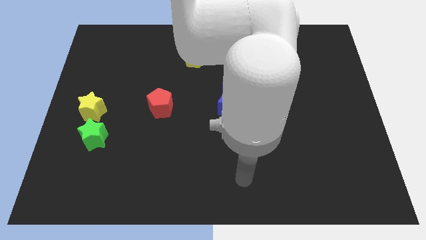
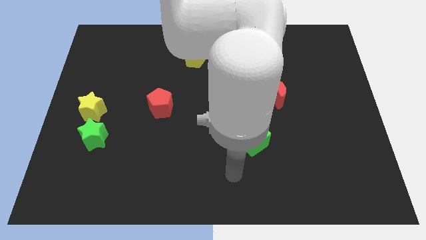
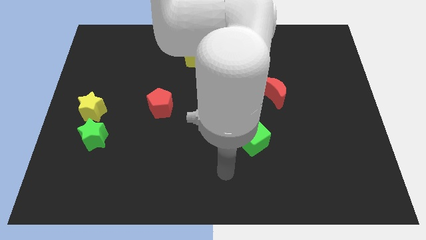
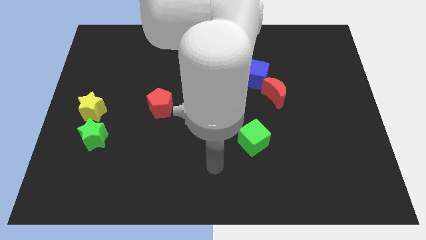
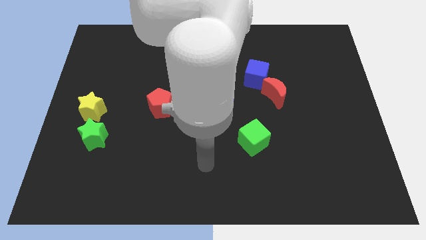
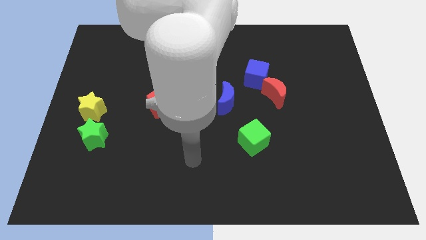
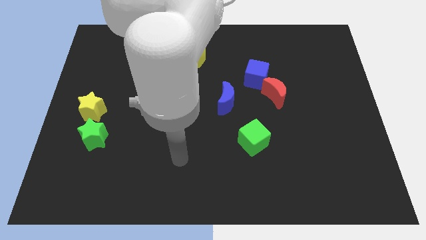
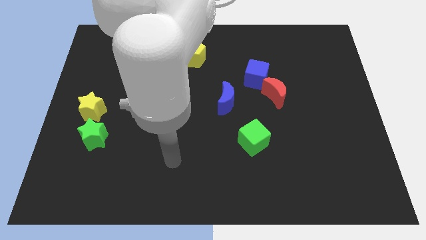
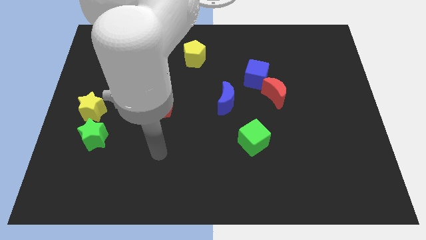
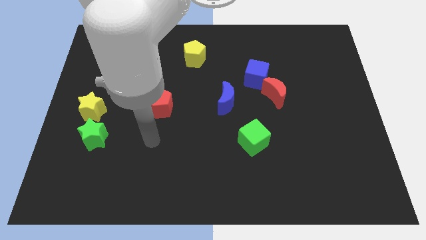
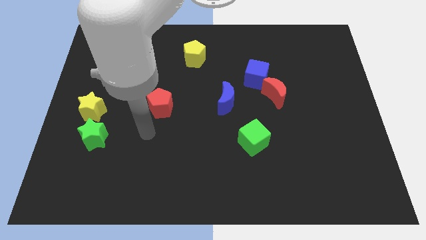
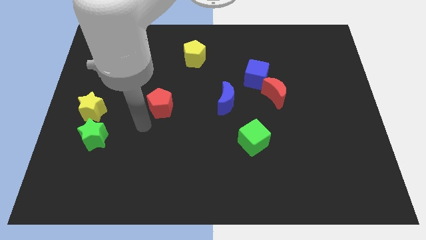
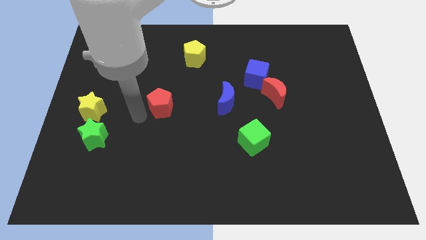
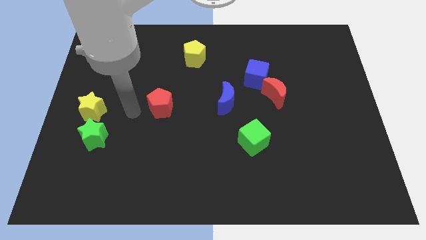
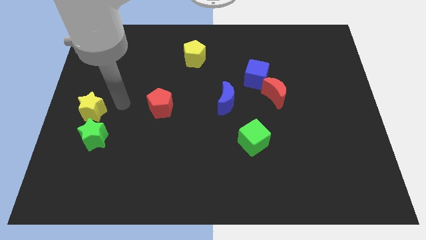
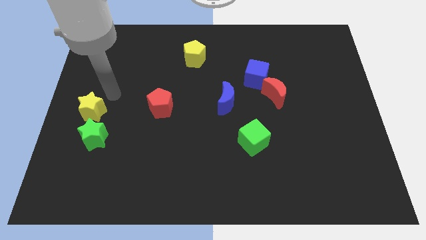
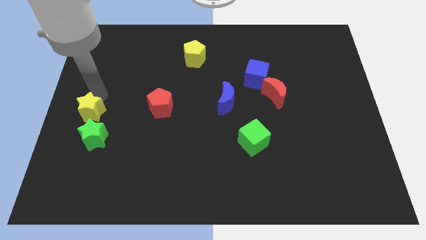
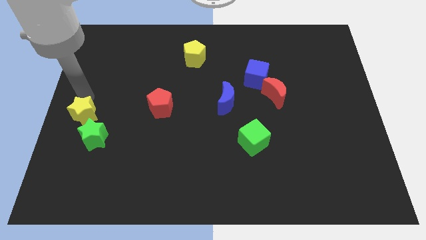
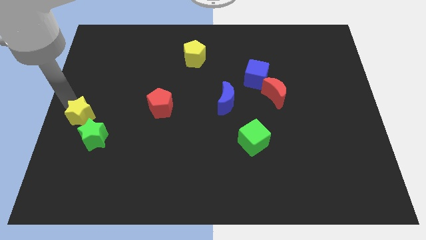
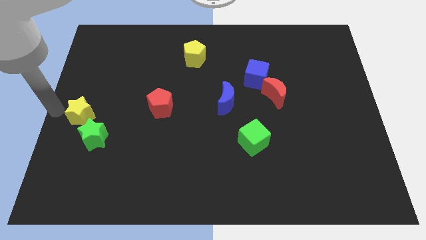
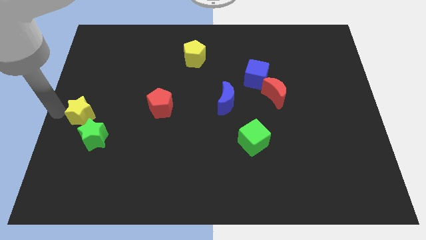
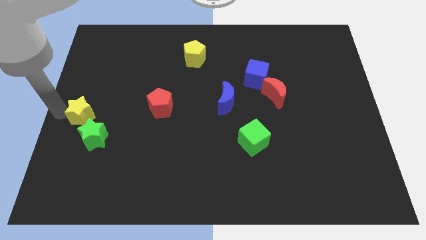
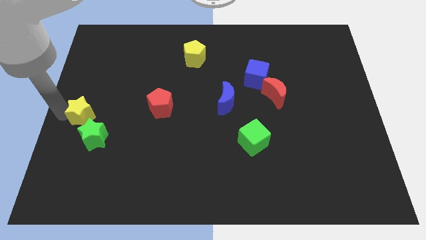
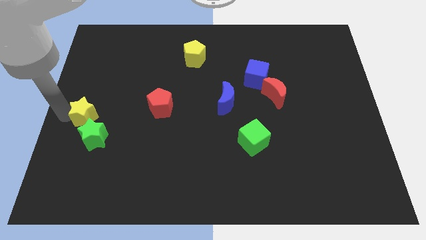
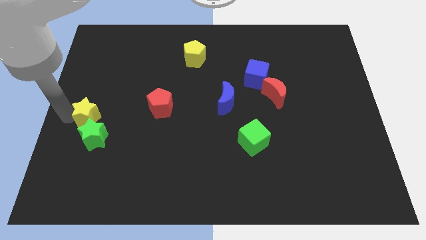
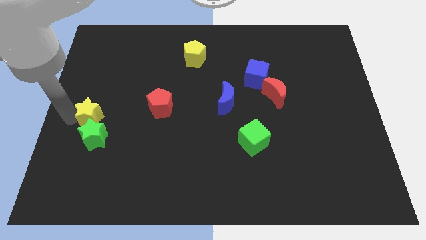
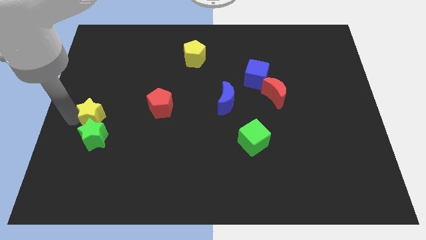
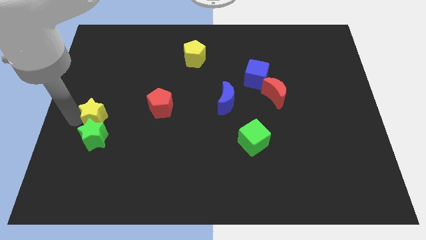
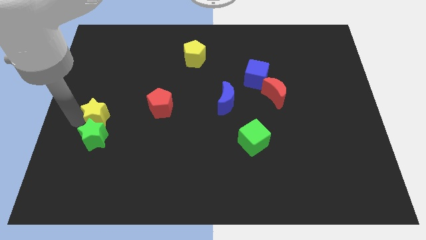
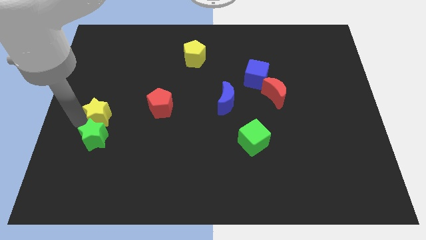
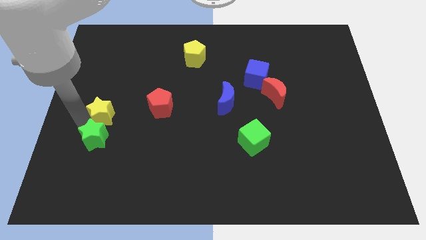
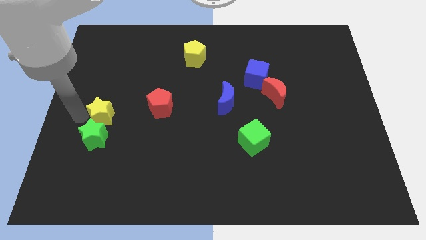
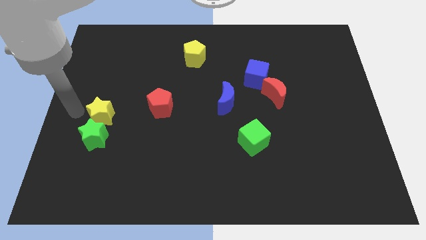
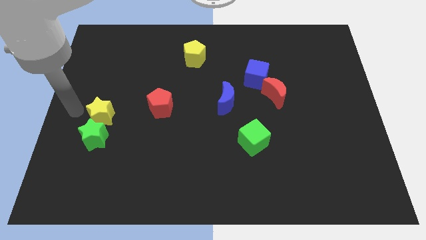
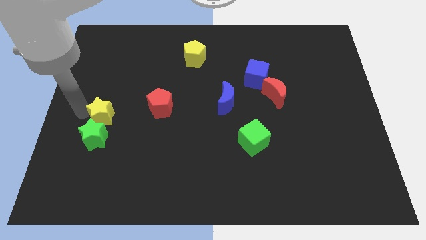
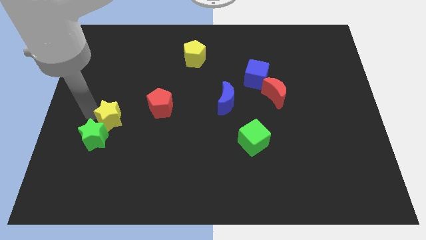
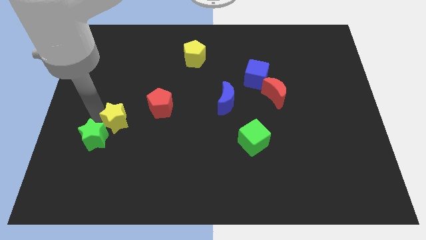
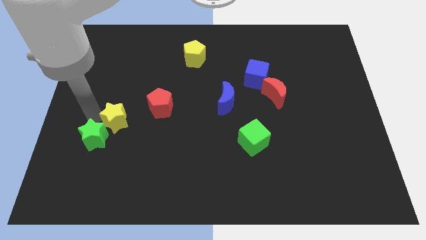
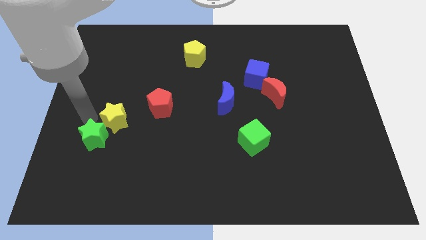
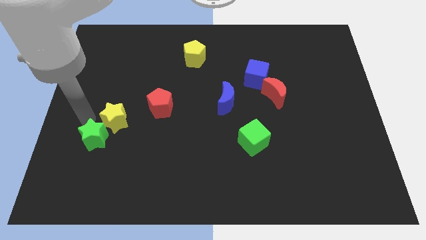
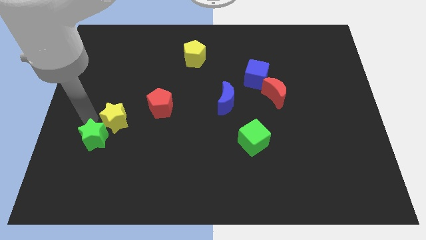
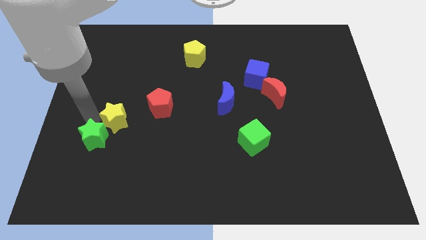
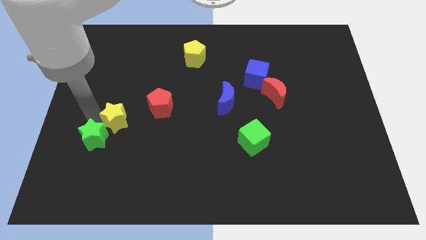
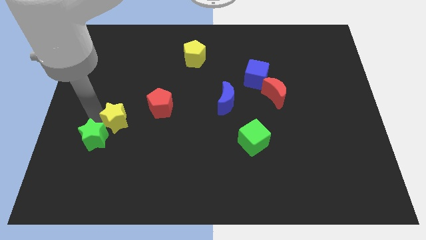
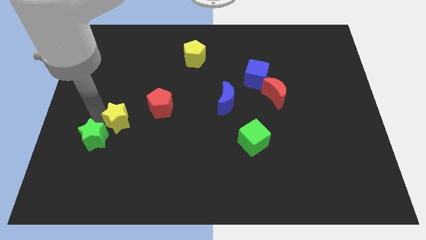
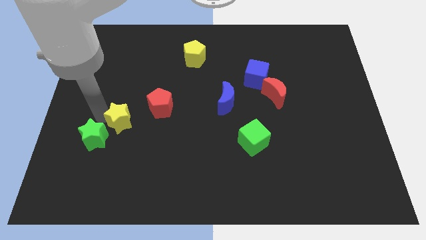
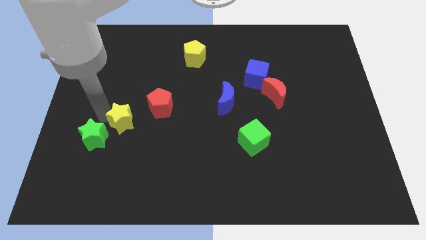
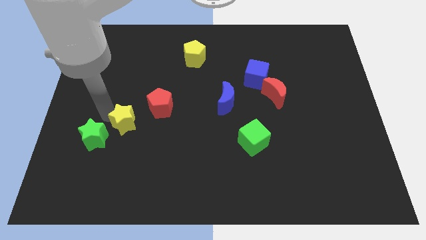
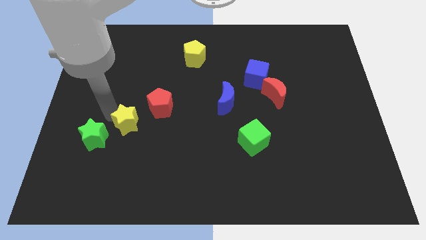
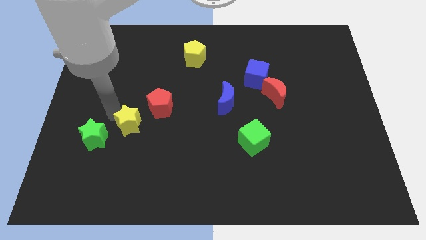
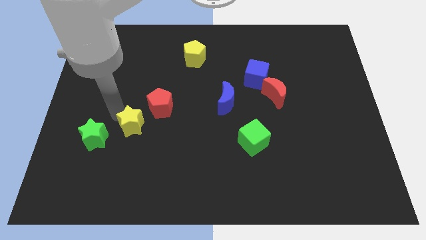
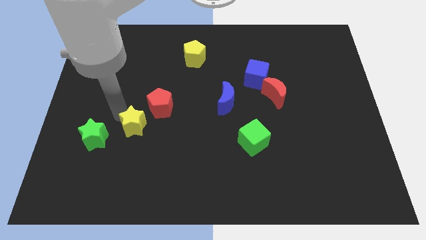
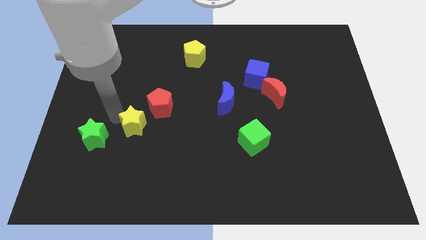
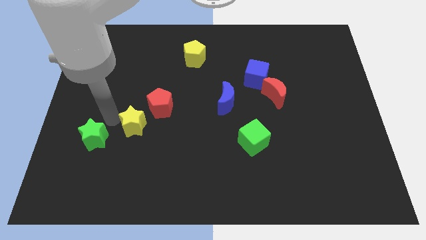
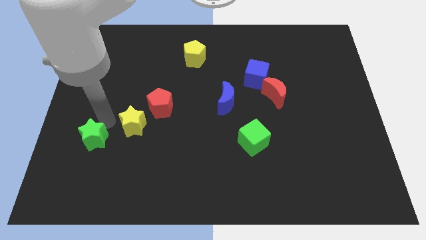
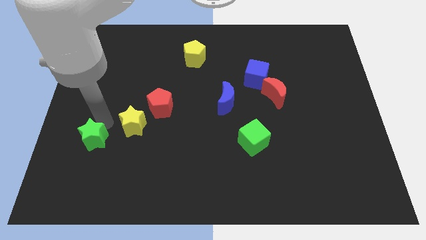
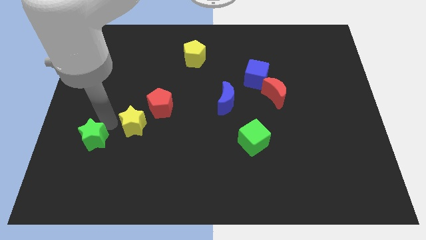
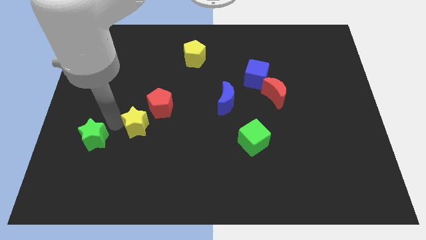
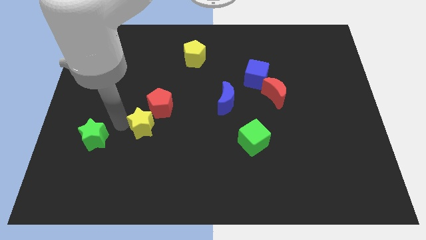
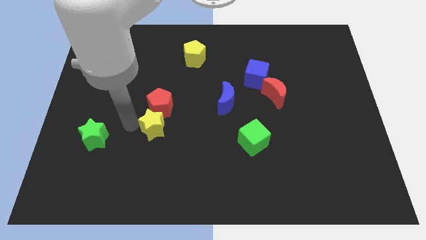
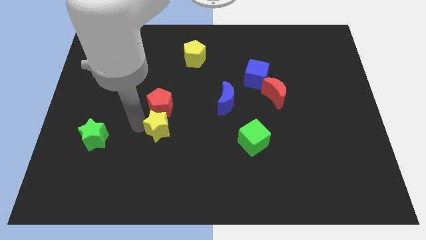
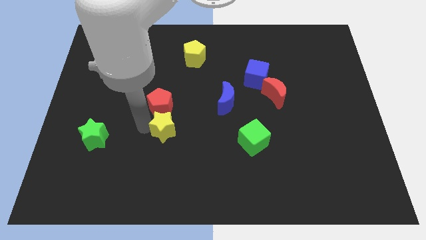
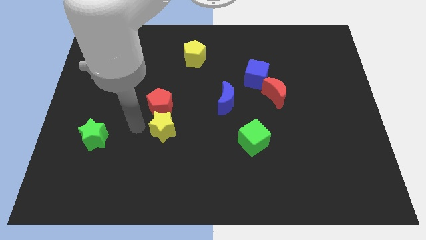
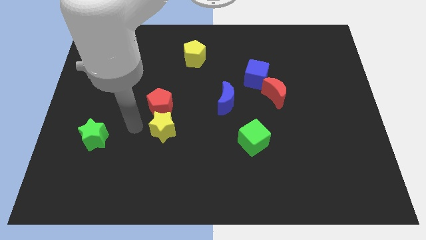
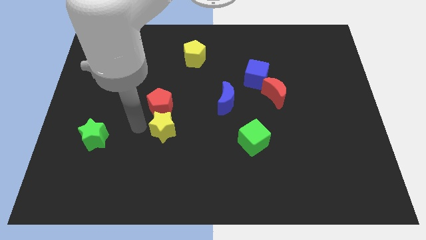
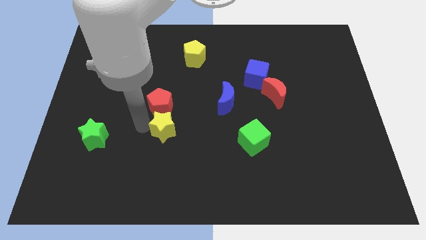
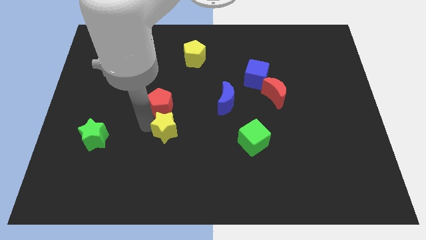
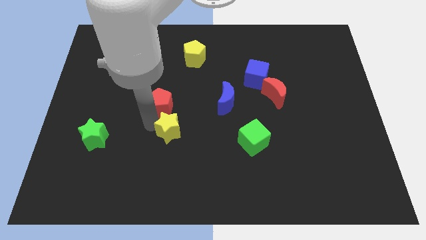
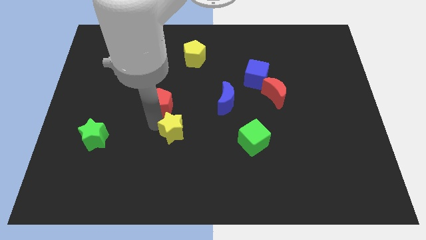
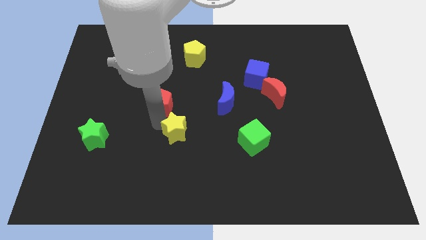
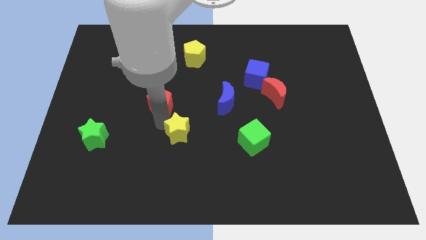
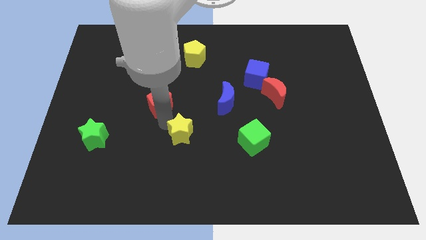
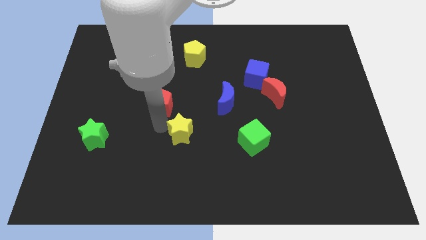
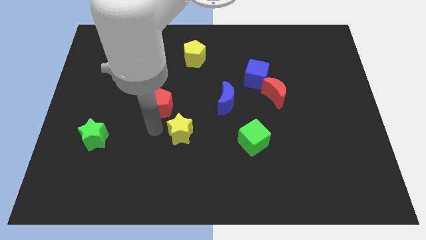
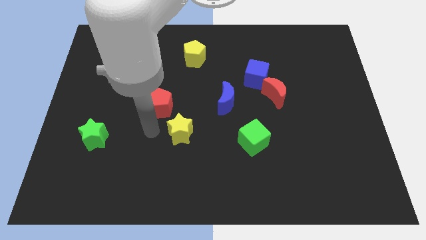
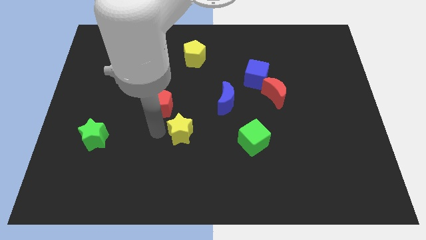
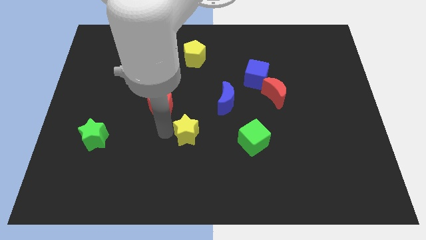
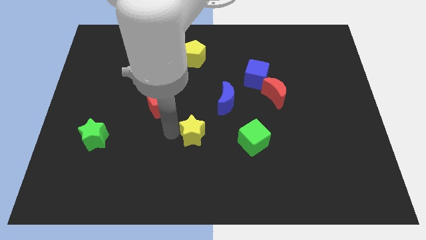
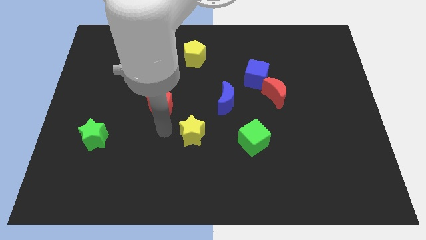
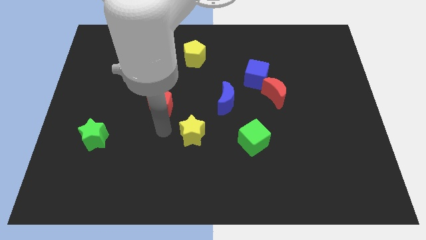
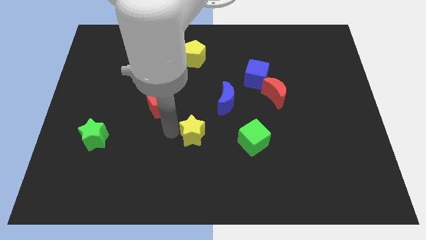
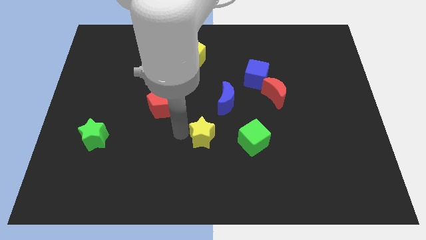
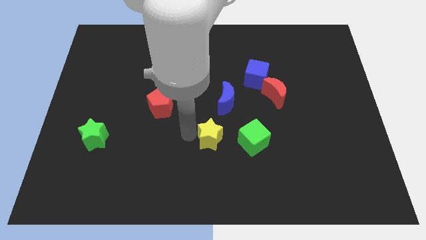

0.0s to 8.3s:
push the yellow star to the bottom side of the blue moon

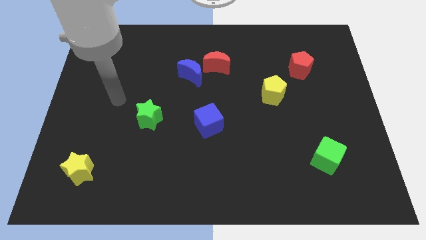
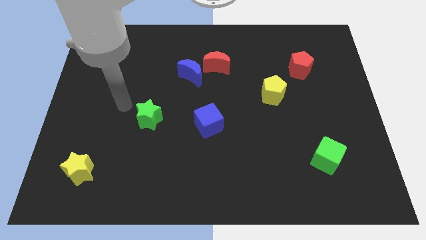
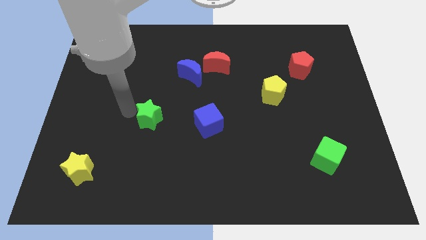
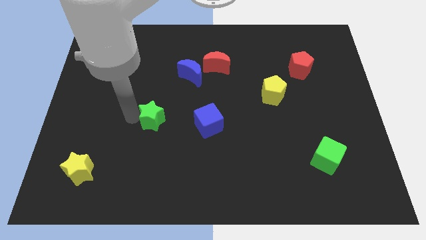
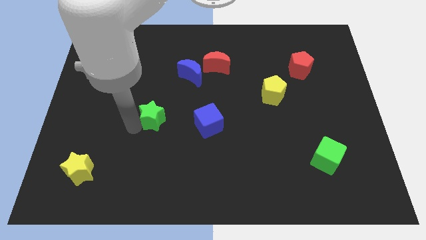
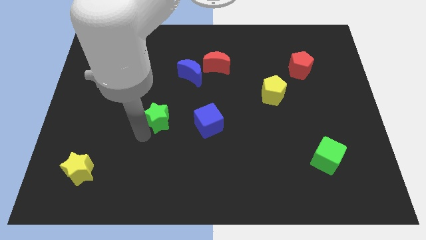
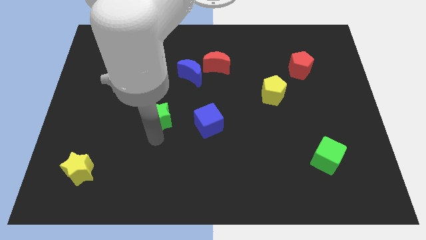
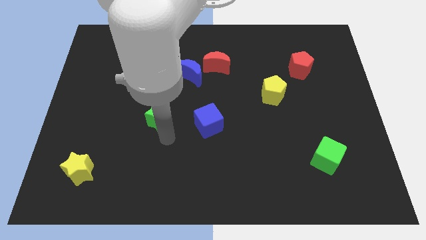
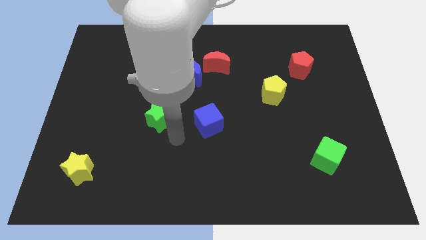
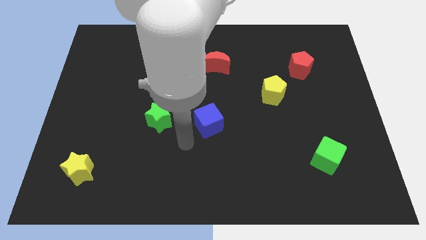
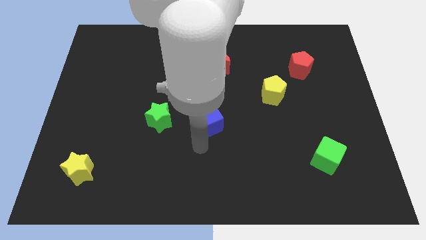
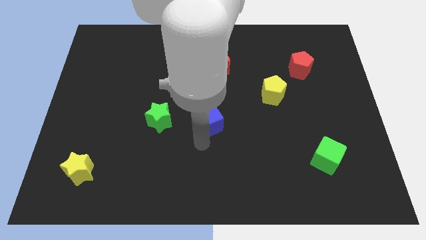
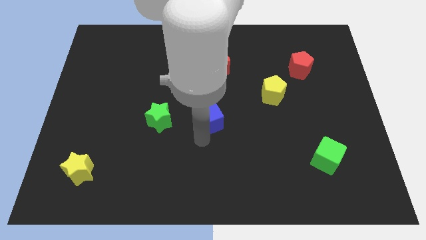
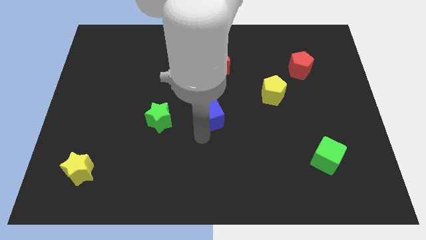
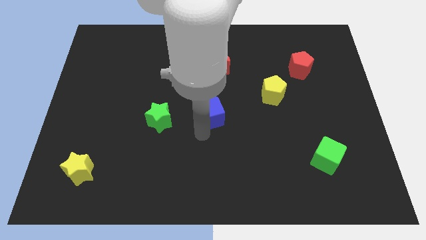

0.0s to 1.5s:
slide the blue cube to the bottom of the red moon
